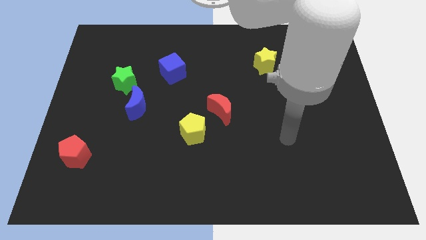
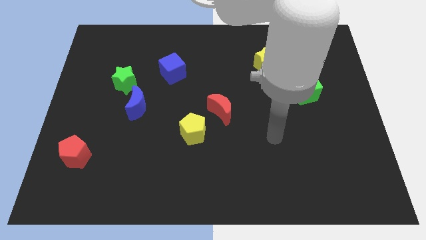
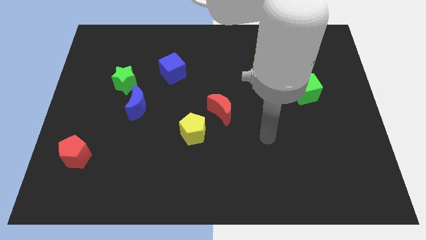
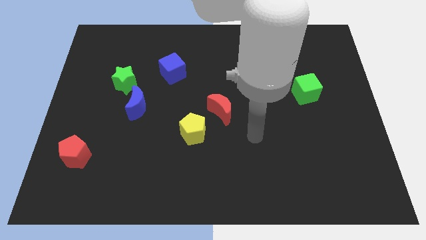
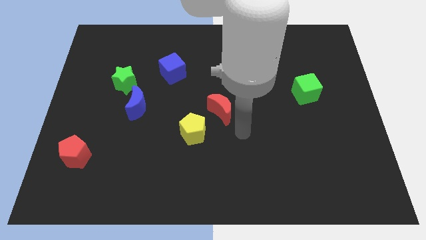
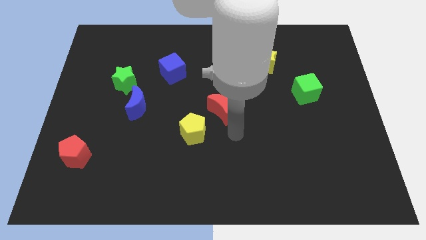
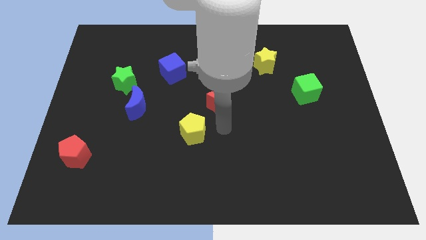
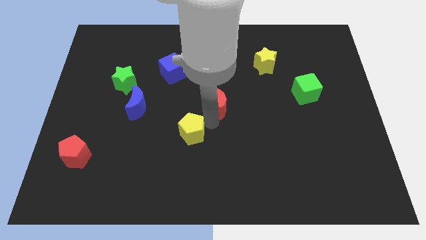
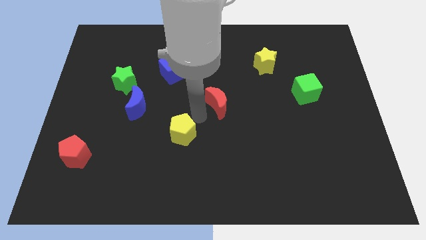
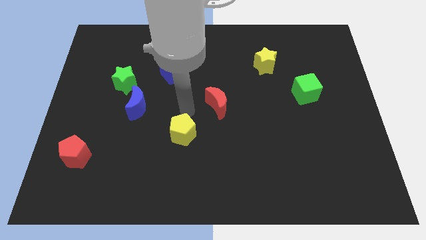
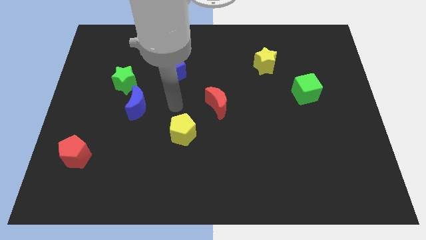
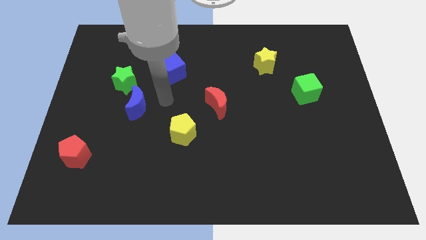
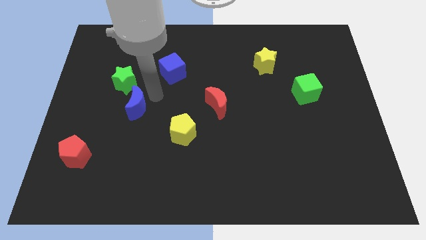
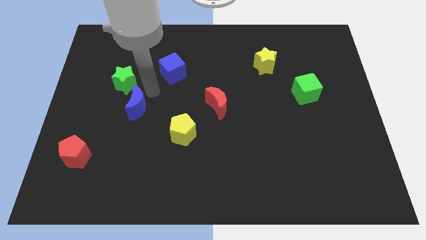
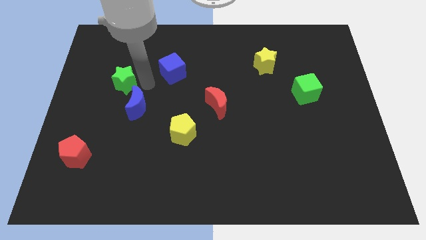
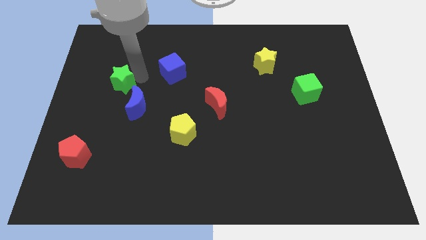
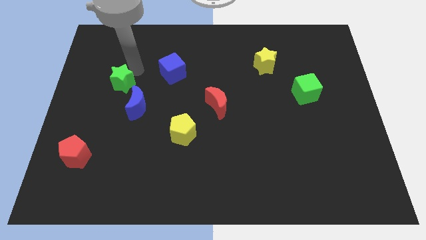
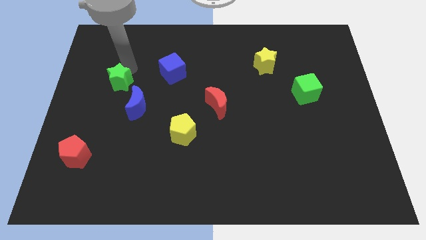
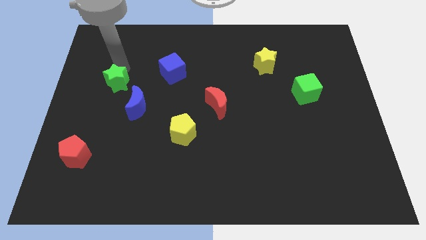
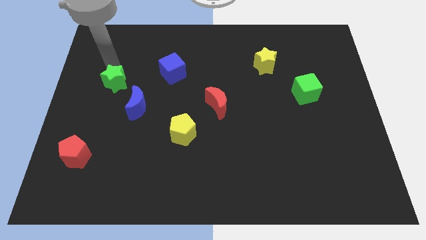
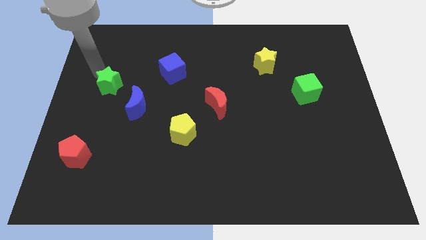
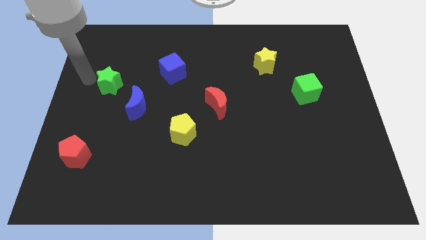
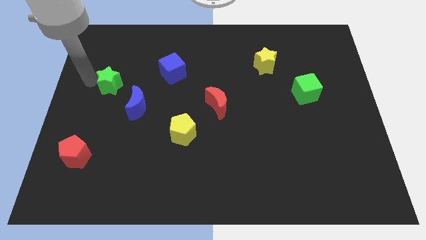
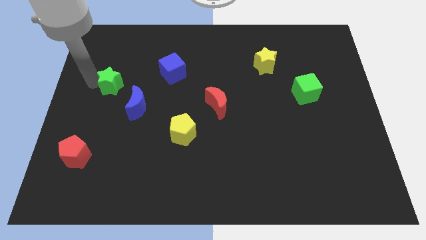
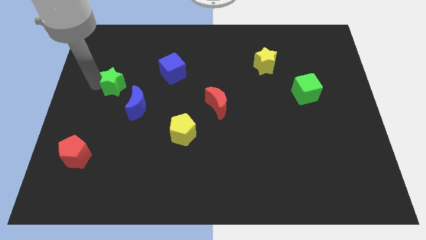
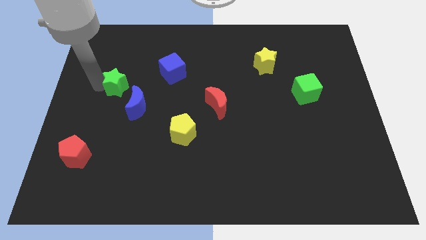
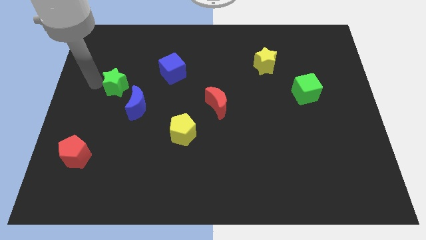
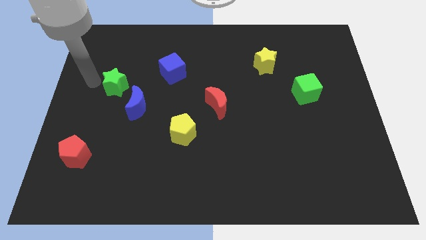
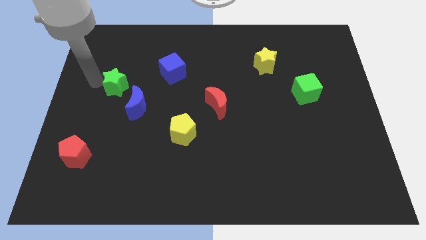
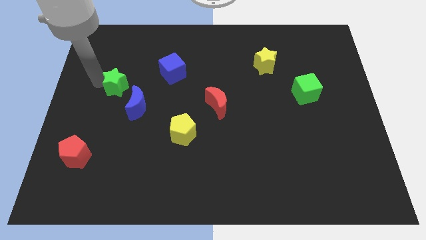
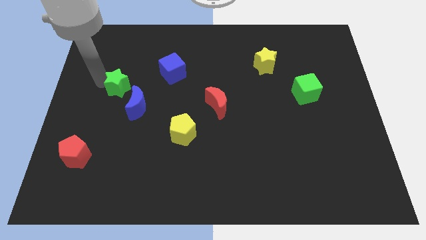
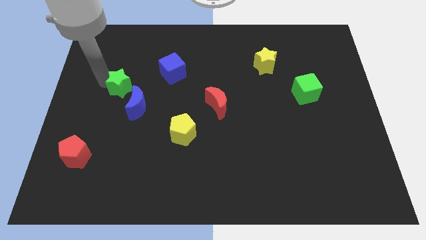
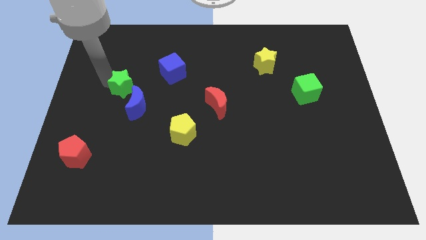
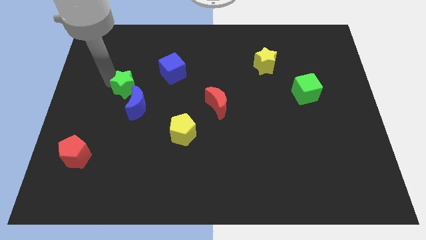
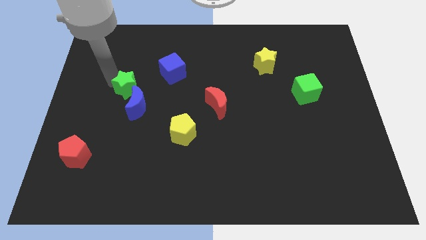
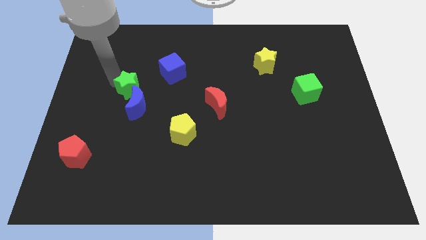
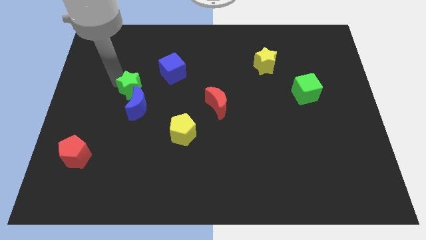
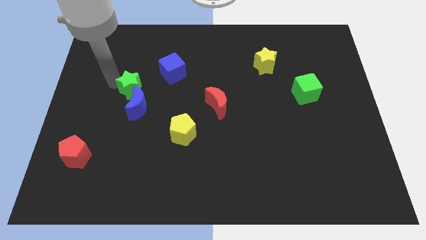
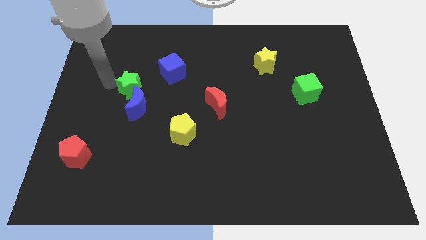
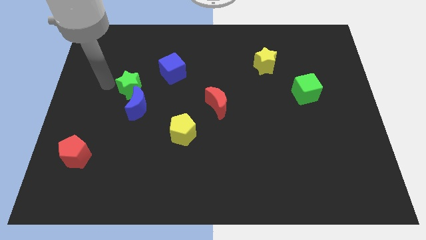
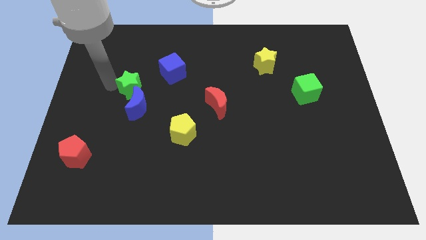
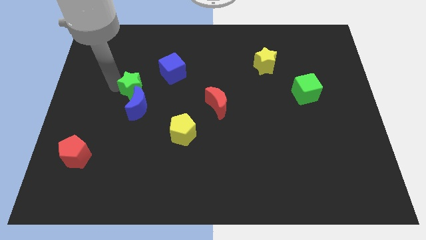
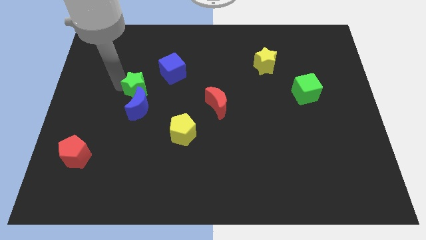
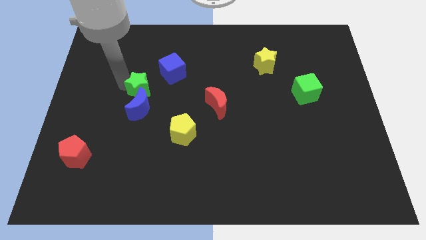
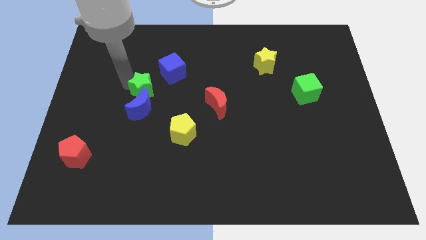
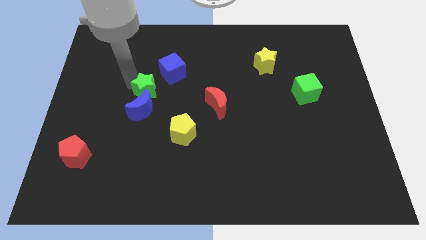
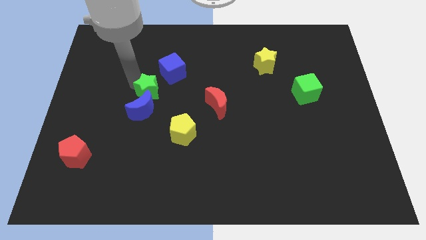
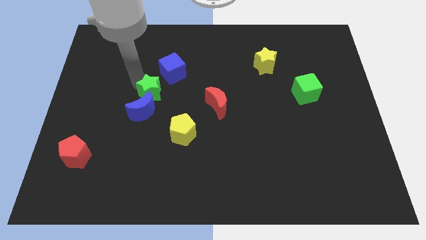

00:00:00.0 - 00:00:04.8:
move the green star to the bottom of the blue cube

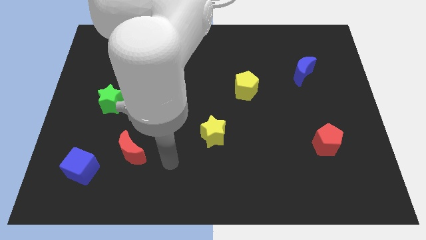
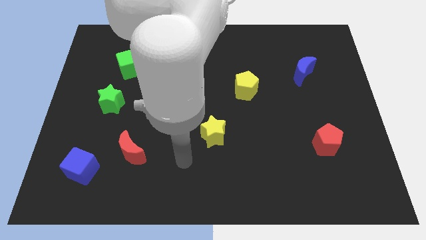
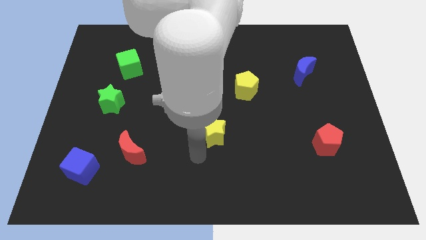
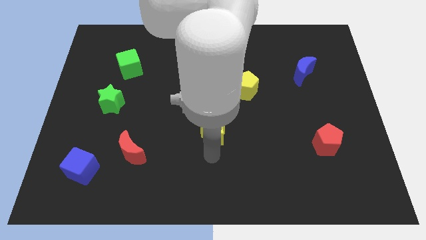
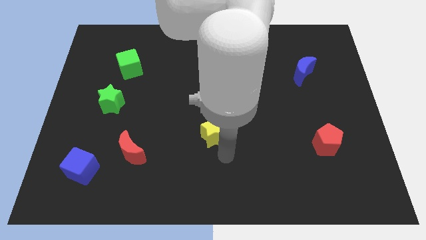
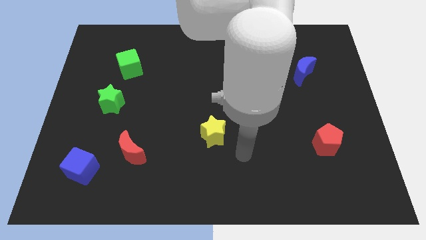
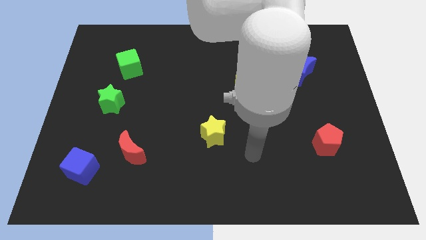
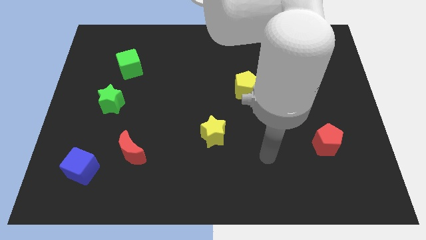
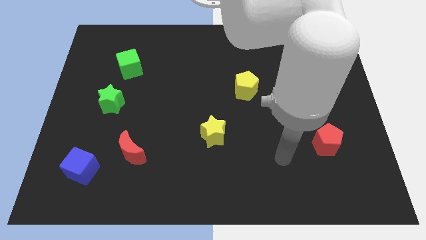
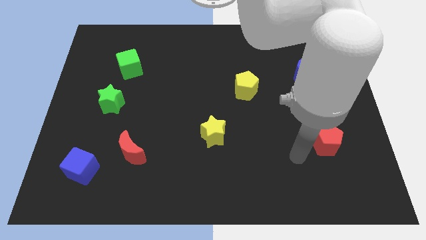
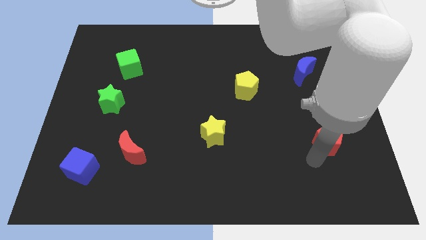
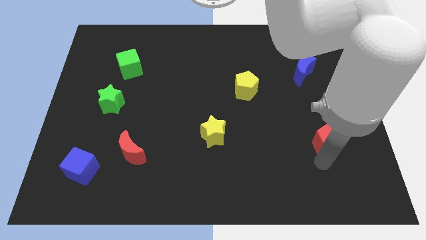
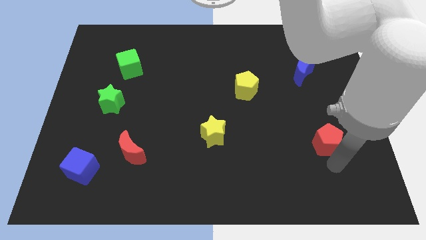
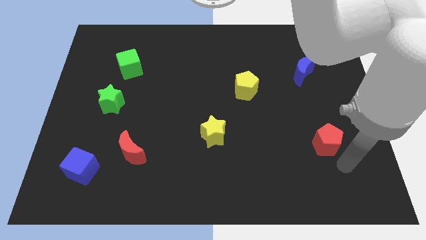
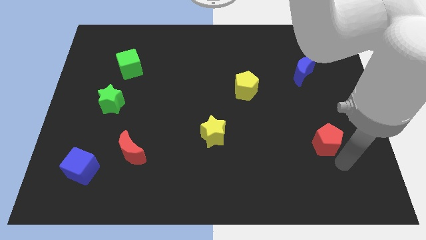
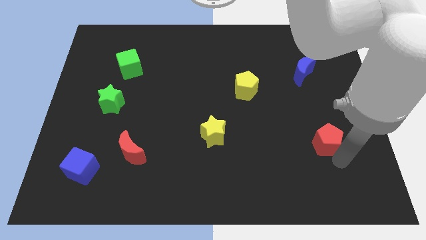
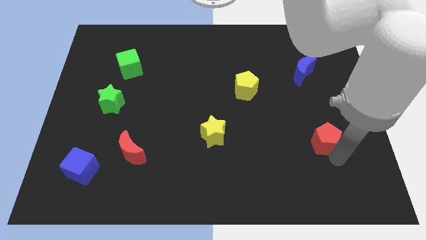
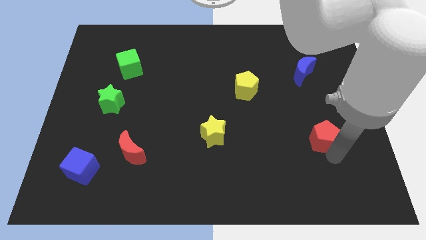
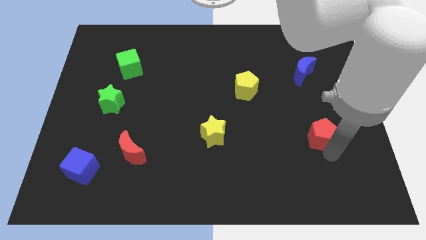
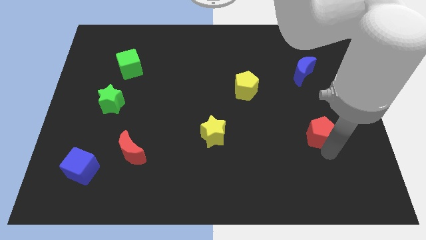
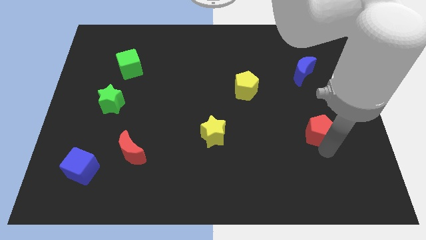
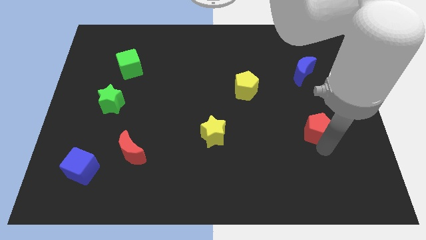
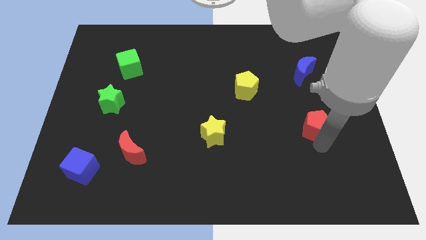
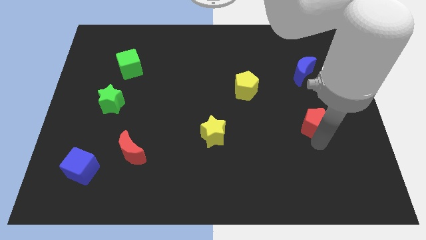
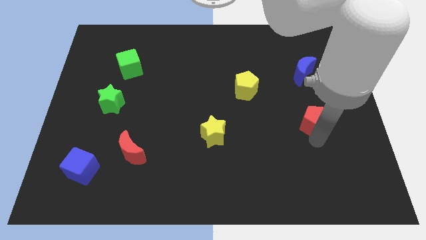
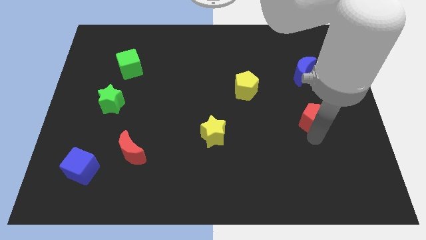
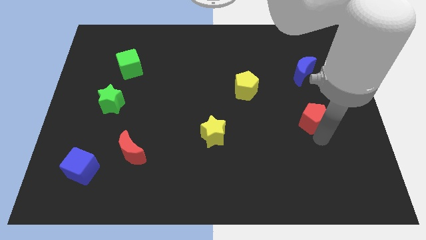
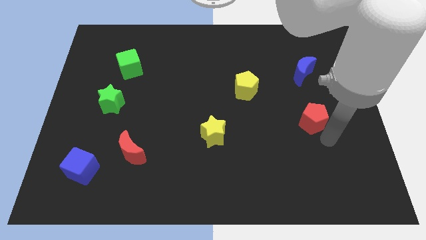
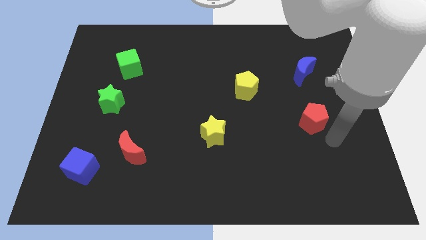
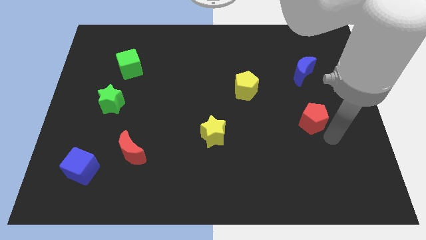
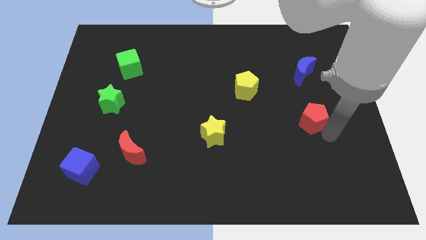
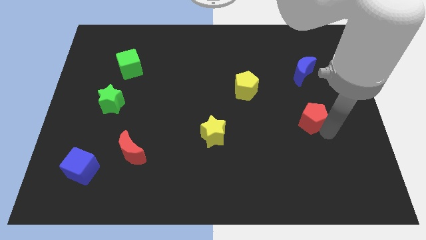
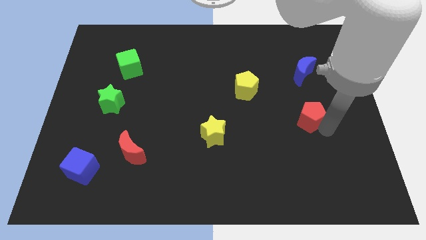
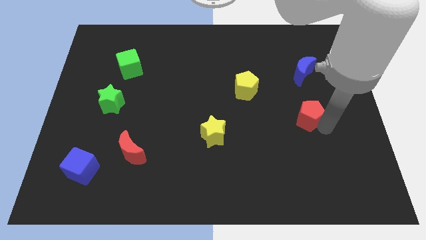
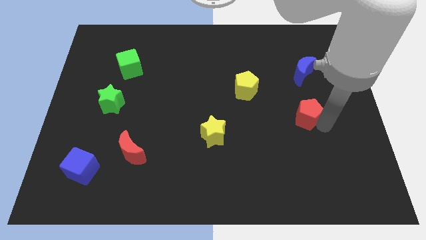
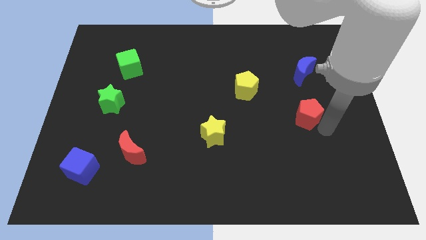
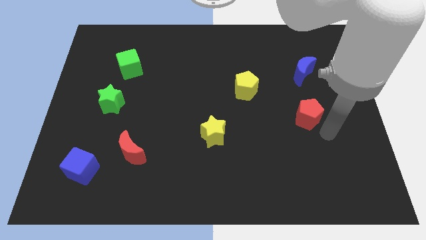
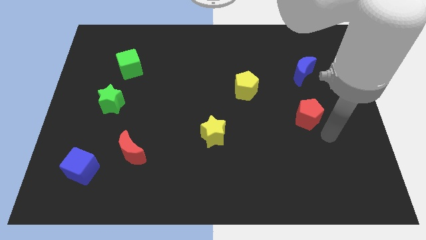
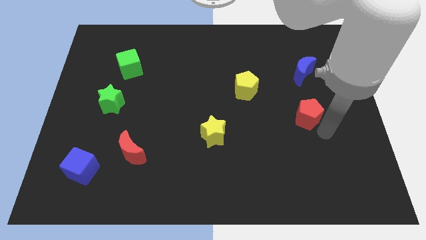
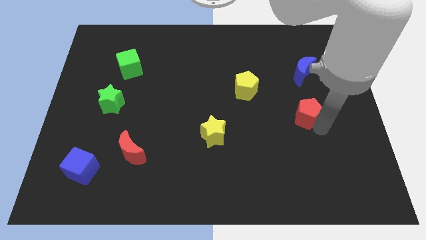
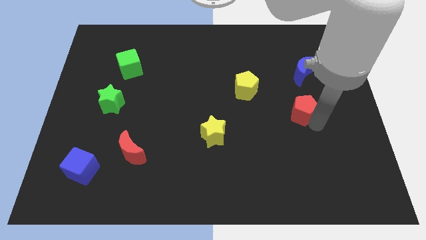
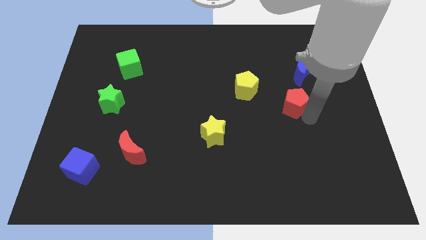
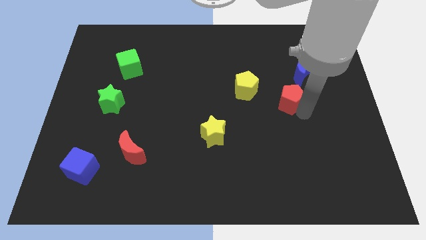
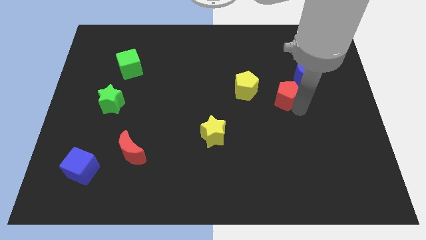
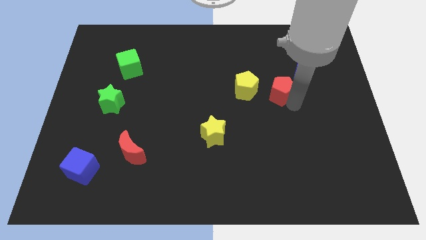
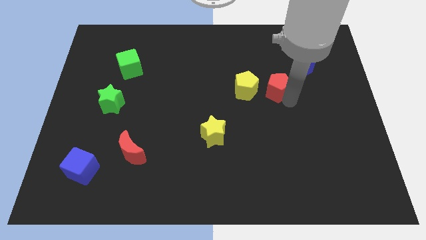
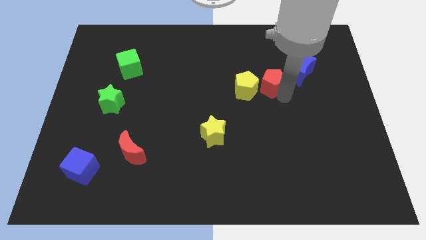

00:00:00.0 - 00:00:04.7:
put the red pentagon to the top right of the yellow pentagon
